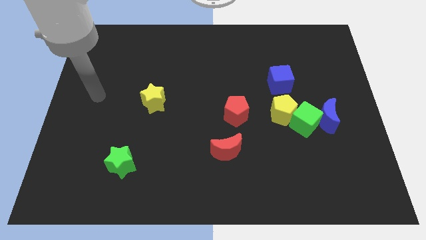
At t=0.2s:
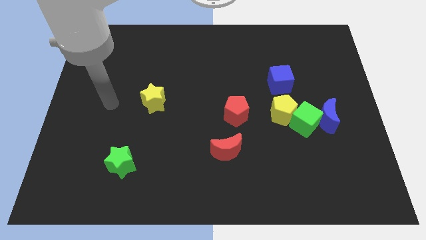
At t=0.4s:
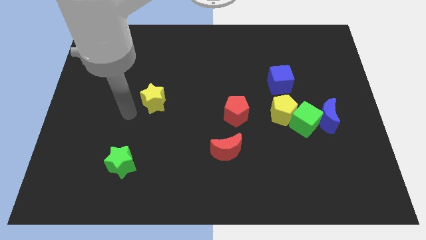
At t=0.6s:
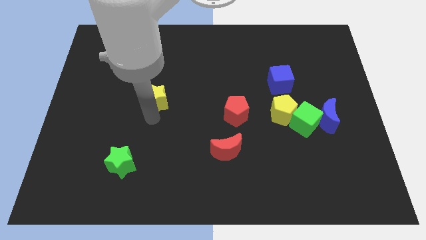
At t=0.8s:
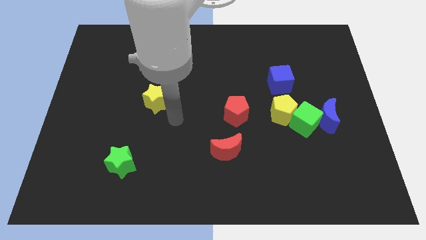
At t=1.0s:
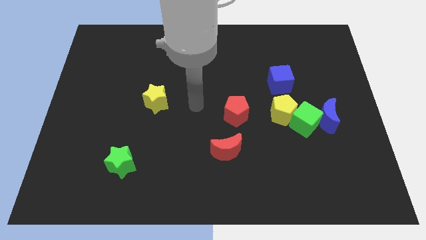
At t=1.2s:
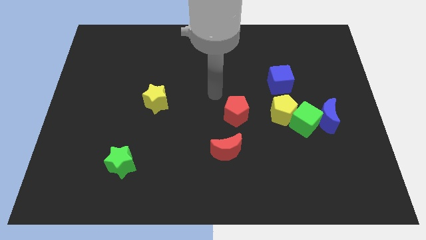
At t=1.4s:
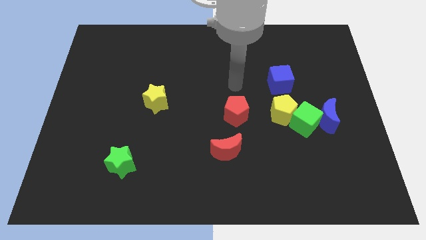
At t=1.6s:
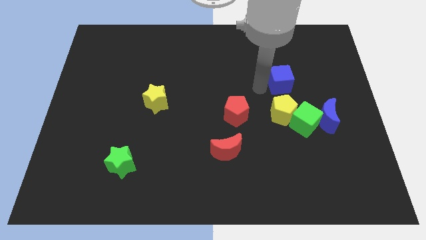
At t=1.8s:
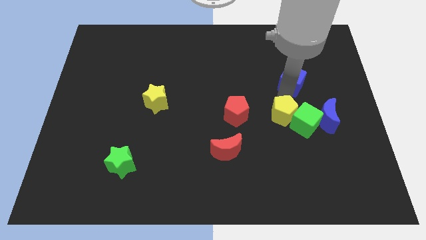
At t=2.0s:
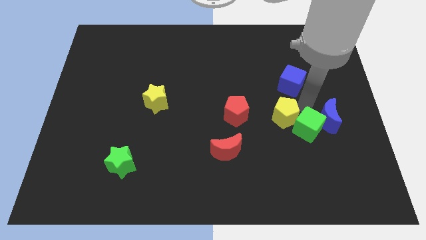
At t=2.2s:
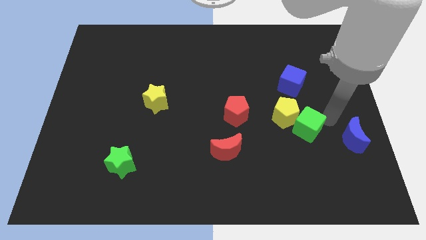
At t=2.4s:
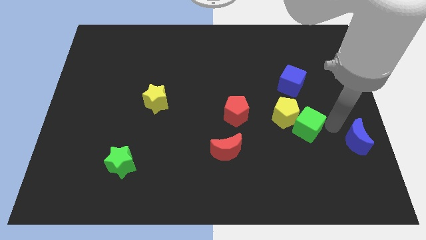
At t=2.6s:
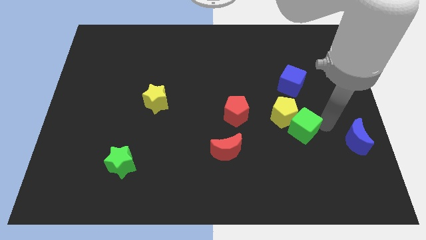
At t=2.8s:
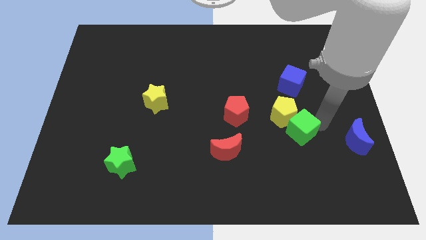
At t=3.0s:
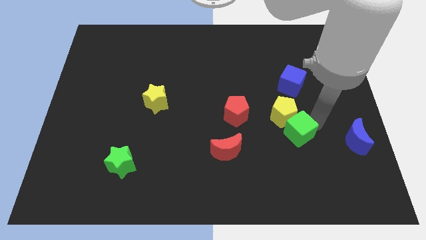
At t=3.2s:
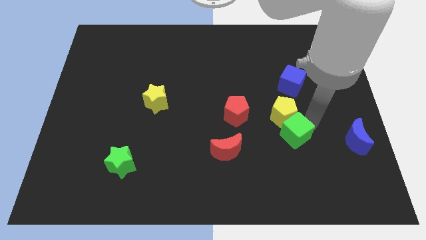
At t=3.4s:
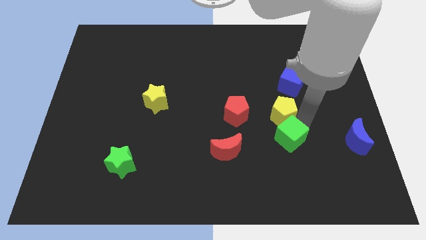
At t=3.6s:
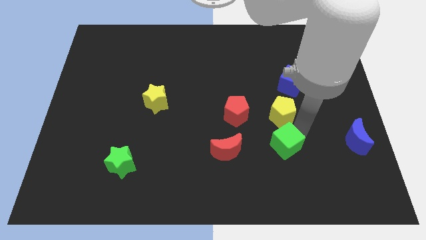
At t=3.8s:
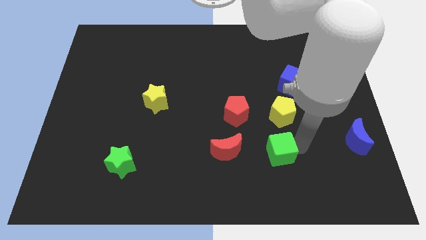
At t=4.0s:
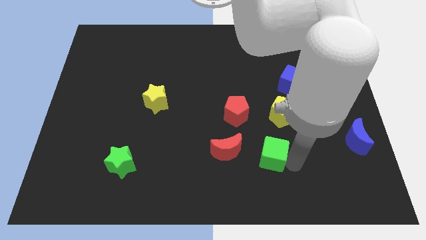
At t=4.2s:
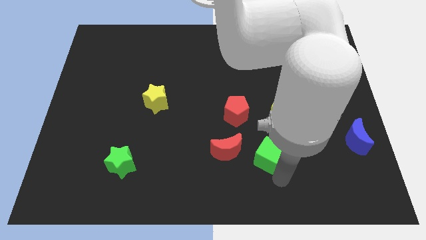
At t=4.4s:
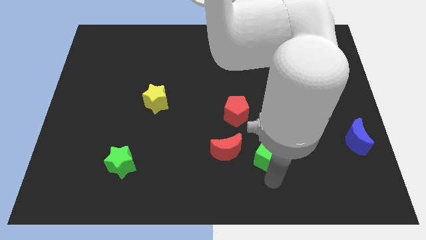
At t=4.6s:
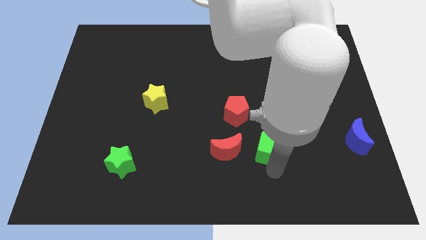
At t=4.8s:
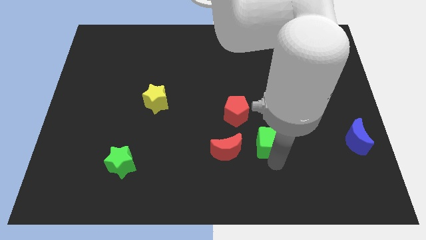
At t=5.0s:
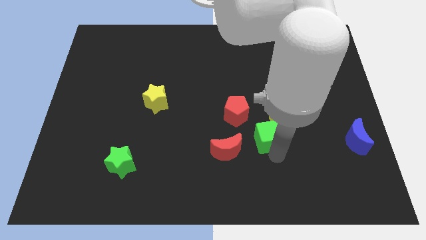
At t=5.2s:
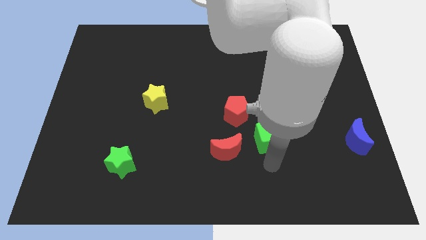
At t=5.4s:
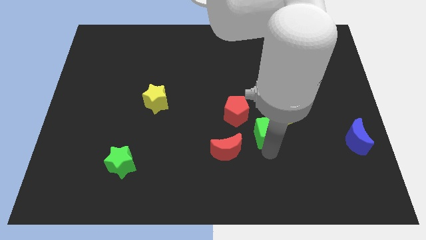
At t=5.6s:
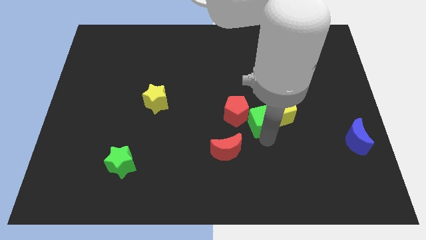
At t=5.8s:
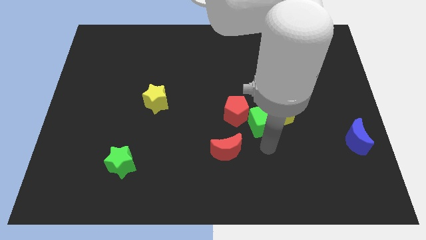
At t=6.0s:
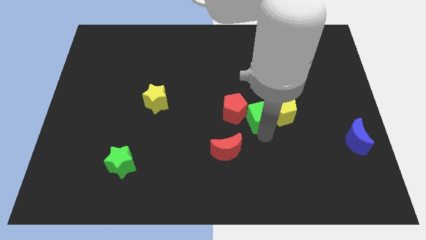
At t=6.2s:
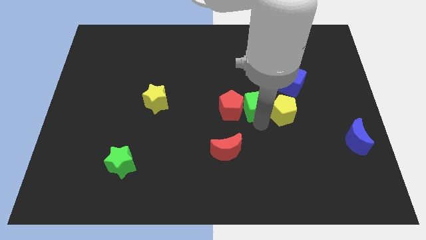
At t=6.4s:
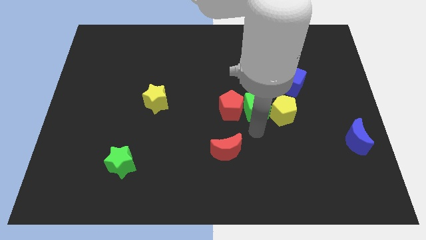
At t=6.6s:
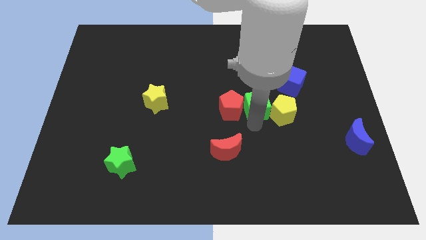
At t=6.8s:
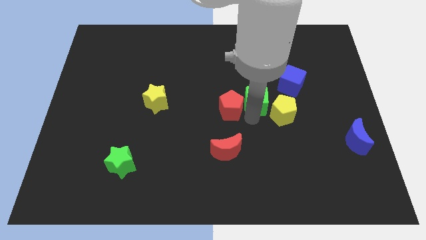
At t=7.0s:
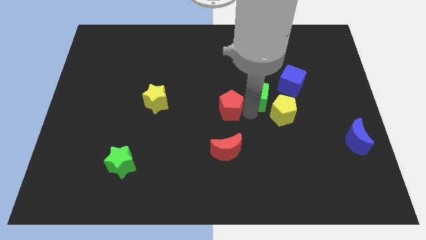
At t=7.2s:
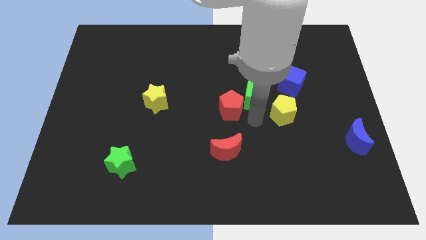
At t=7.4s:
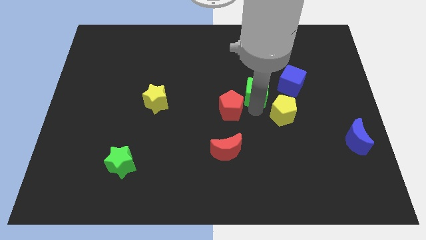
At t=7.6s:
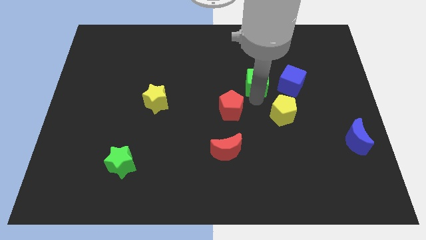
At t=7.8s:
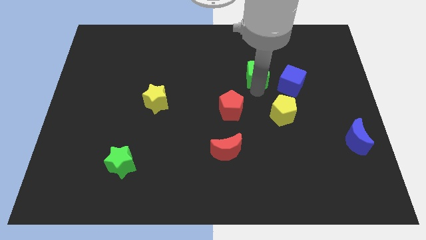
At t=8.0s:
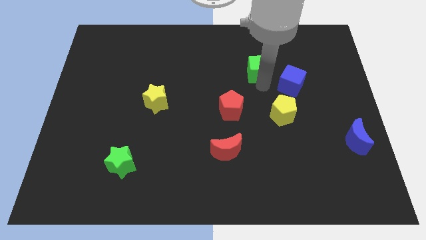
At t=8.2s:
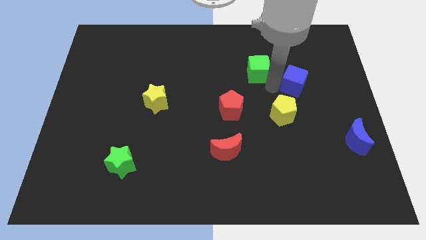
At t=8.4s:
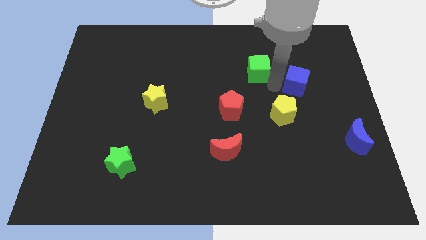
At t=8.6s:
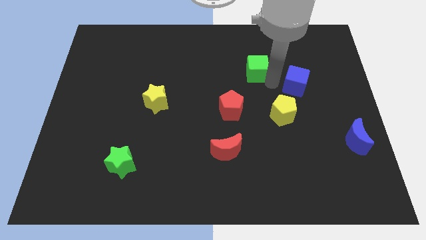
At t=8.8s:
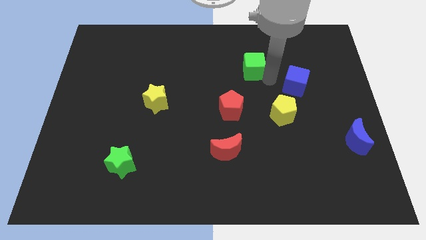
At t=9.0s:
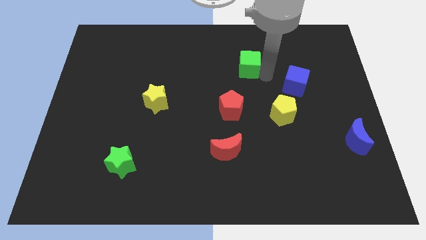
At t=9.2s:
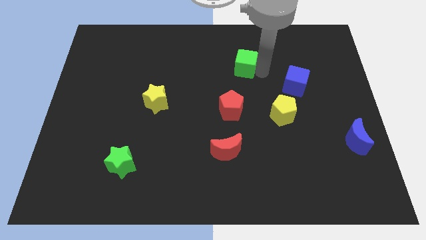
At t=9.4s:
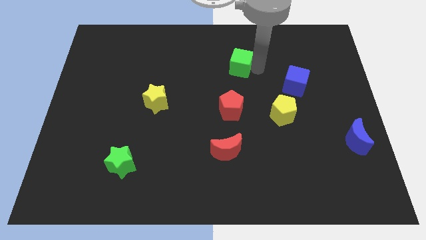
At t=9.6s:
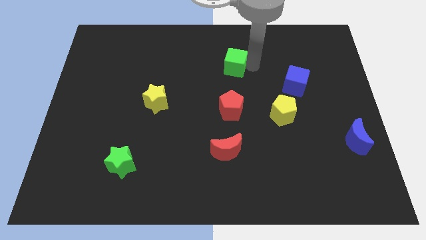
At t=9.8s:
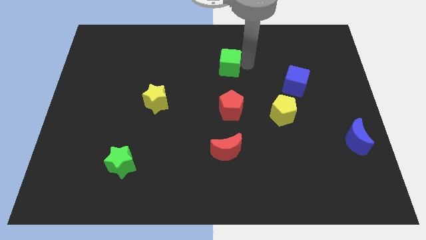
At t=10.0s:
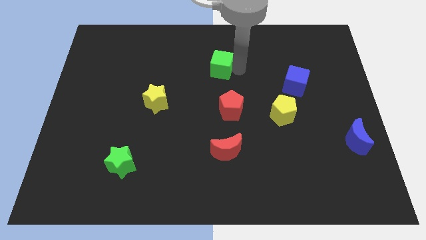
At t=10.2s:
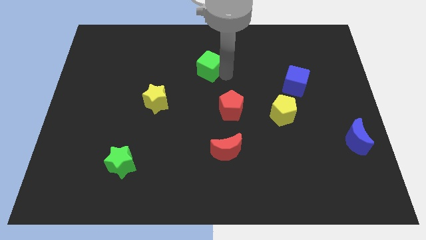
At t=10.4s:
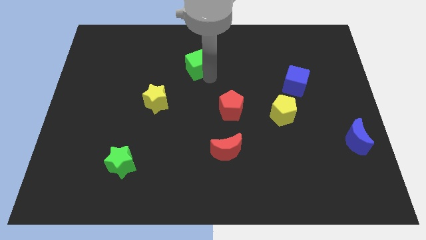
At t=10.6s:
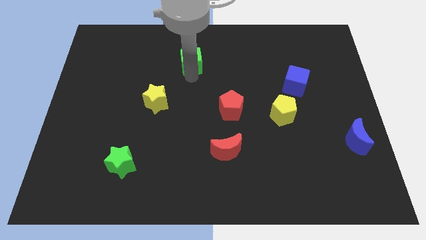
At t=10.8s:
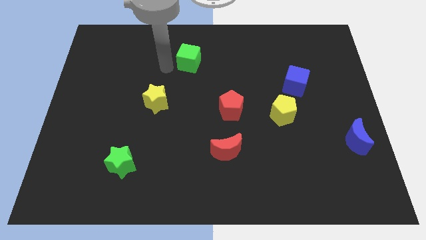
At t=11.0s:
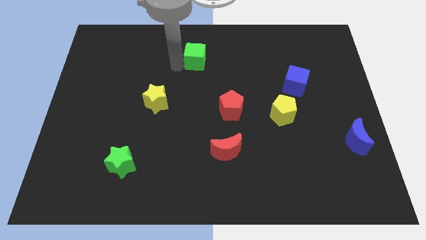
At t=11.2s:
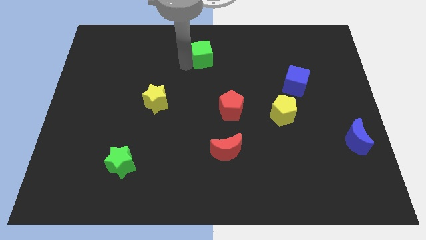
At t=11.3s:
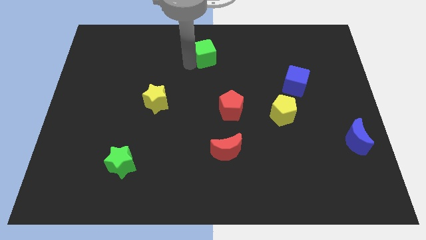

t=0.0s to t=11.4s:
move the green cube to the towards your base
